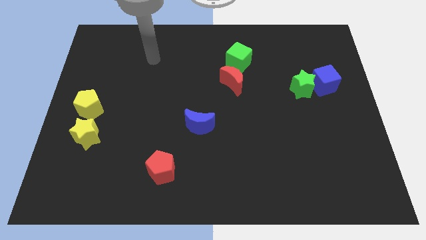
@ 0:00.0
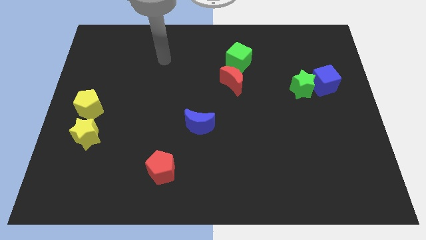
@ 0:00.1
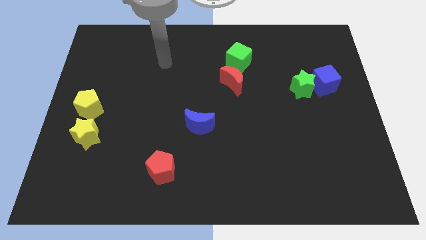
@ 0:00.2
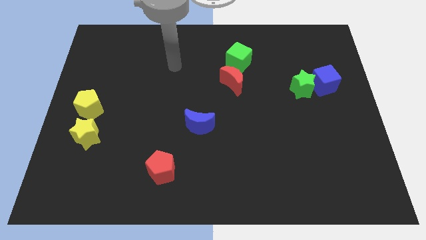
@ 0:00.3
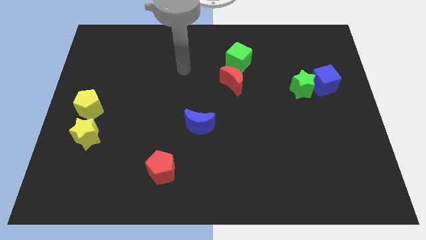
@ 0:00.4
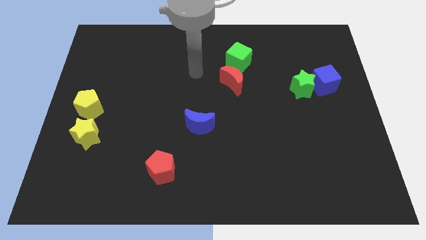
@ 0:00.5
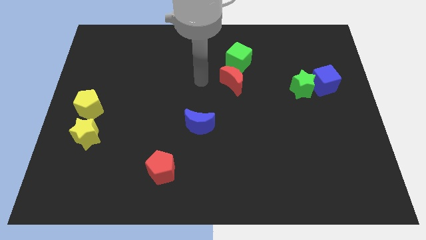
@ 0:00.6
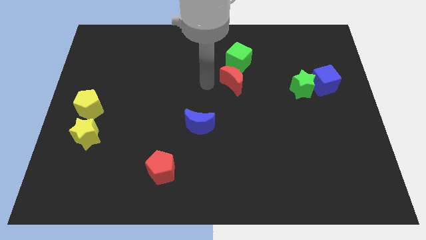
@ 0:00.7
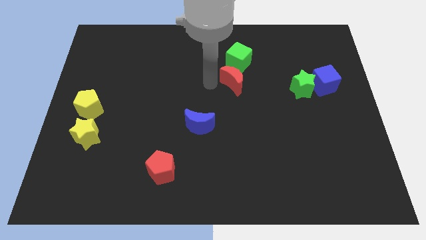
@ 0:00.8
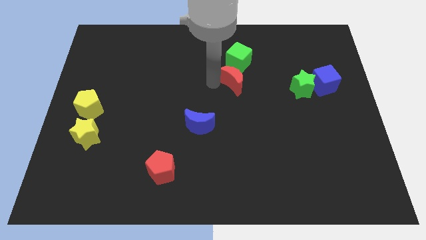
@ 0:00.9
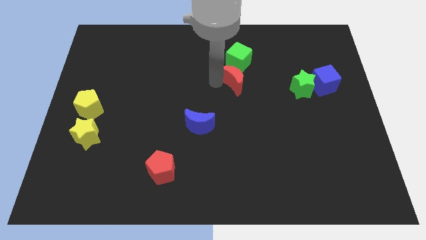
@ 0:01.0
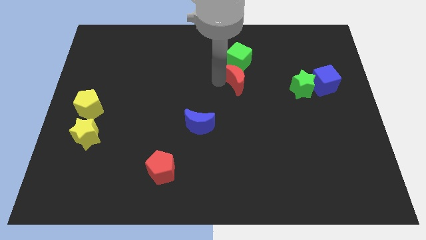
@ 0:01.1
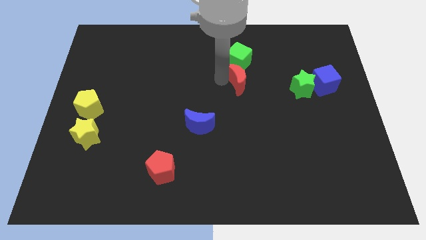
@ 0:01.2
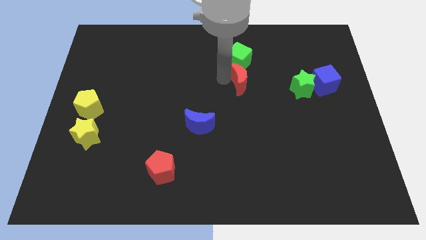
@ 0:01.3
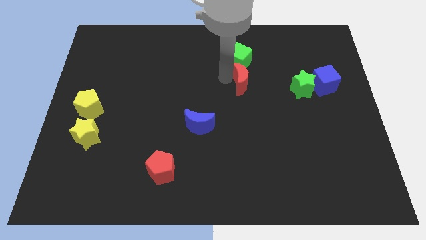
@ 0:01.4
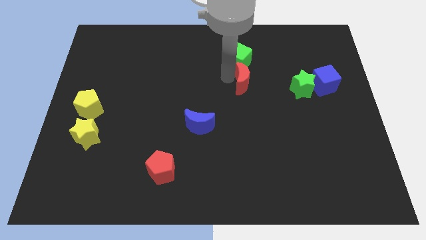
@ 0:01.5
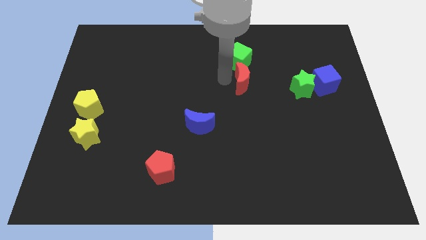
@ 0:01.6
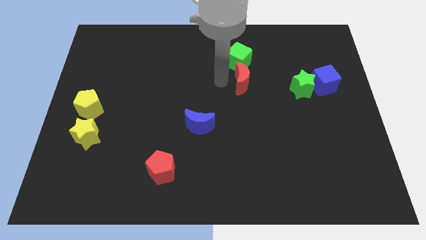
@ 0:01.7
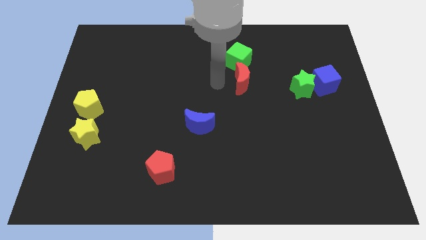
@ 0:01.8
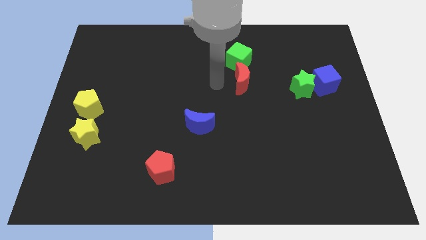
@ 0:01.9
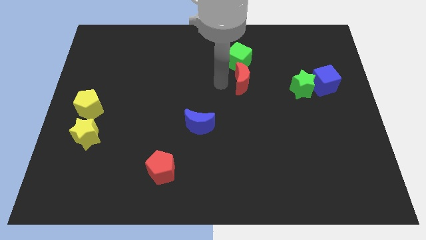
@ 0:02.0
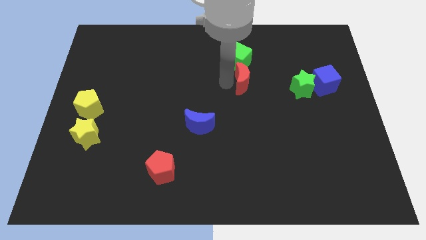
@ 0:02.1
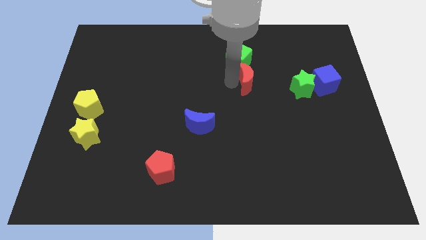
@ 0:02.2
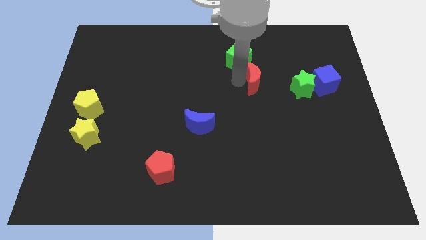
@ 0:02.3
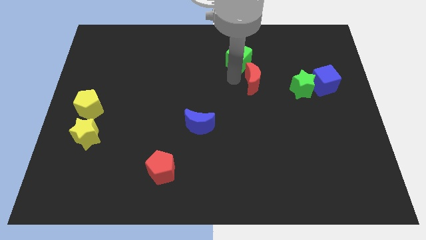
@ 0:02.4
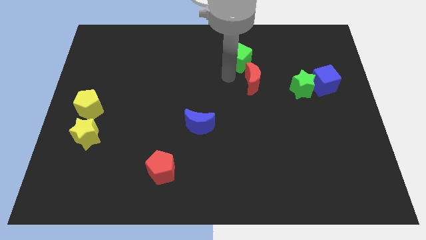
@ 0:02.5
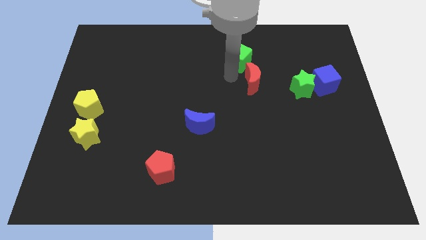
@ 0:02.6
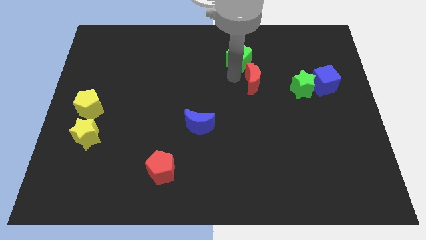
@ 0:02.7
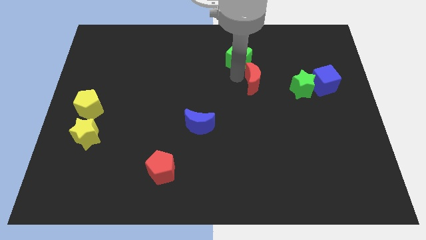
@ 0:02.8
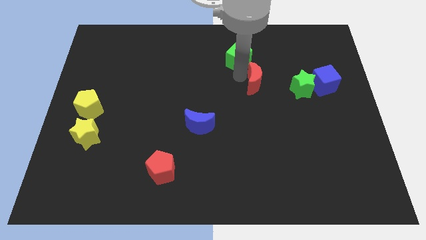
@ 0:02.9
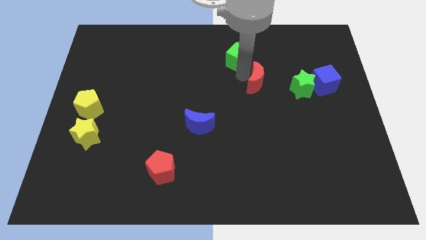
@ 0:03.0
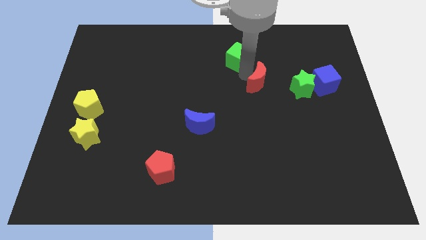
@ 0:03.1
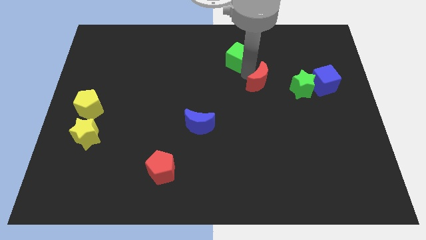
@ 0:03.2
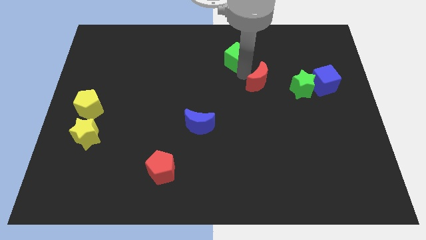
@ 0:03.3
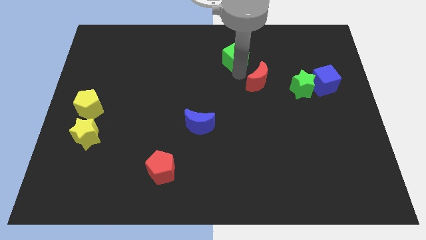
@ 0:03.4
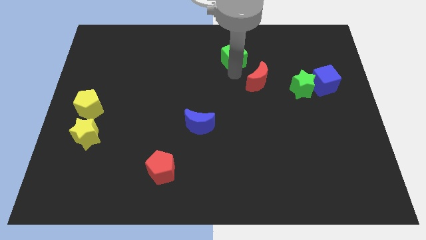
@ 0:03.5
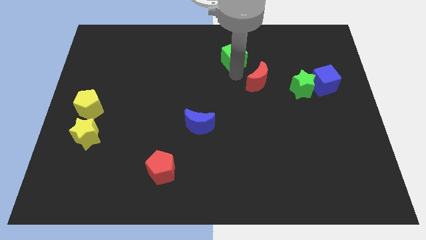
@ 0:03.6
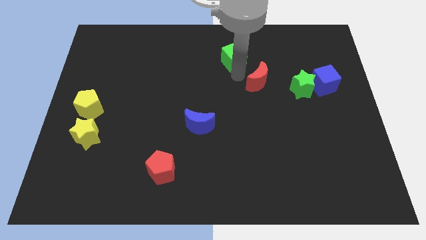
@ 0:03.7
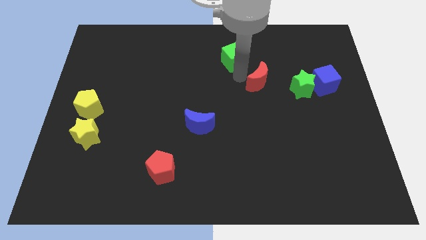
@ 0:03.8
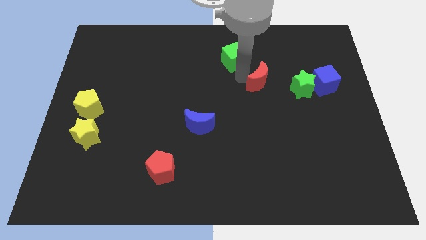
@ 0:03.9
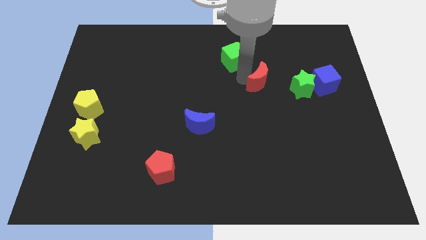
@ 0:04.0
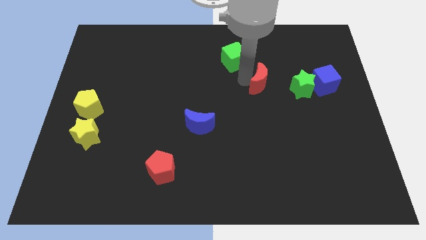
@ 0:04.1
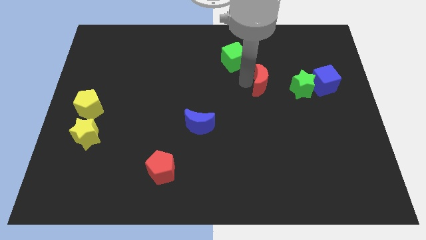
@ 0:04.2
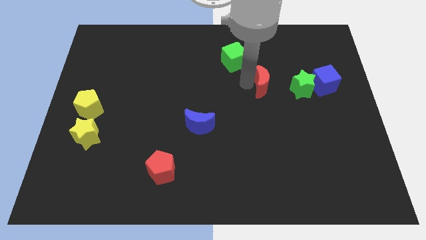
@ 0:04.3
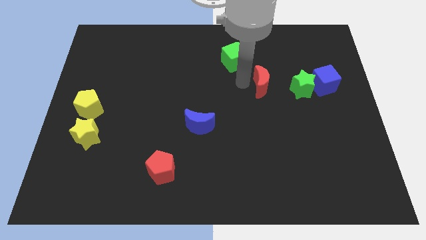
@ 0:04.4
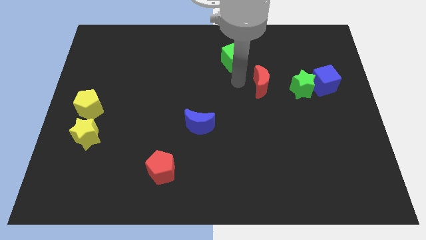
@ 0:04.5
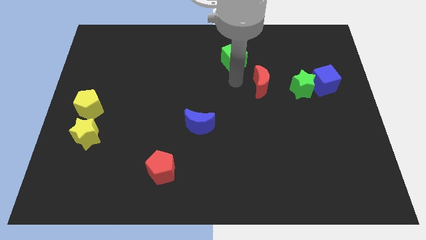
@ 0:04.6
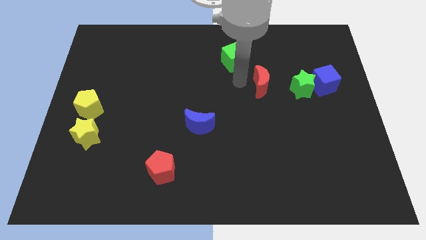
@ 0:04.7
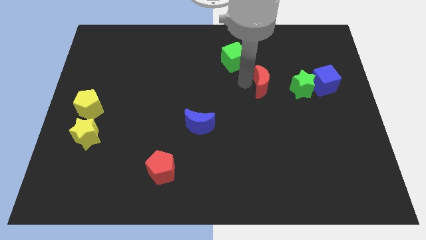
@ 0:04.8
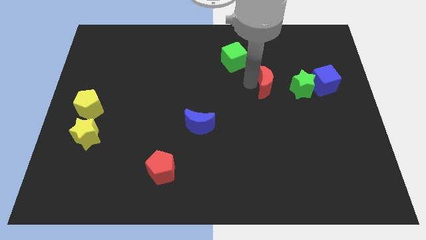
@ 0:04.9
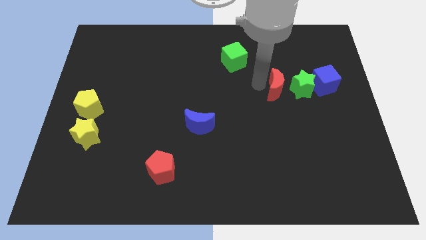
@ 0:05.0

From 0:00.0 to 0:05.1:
push the red moon to the green star

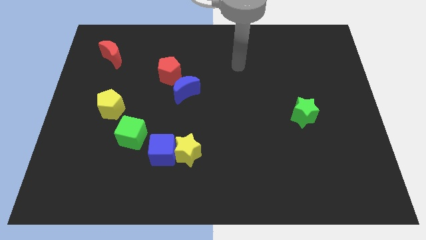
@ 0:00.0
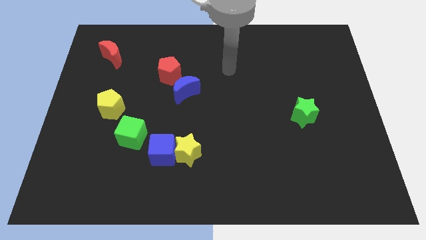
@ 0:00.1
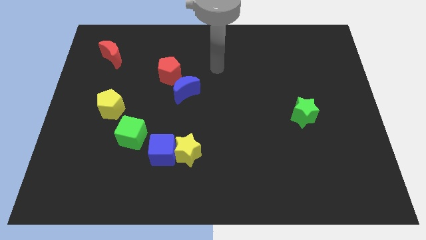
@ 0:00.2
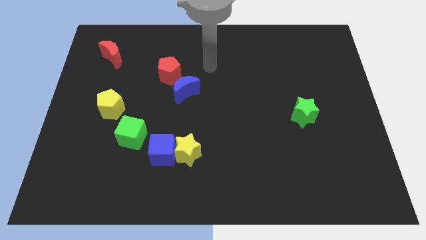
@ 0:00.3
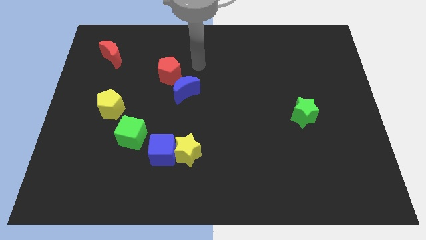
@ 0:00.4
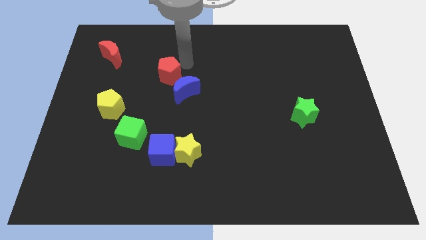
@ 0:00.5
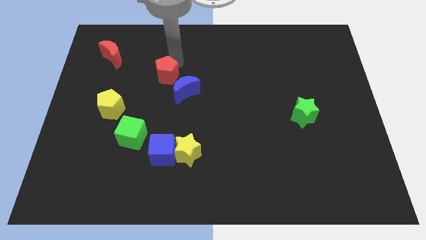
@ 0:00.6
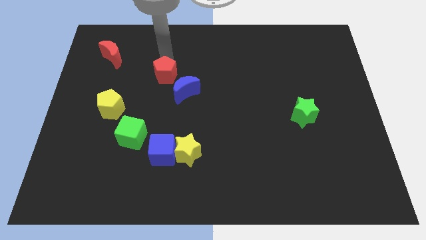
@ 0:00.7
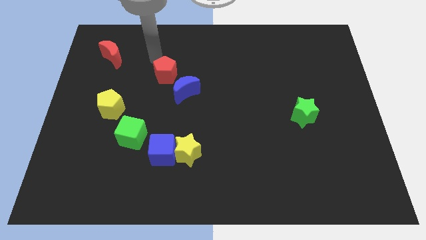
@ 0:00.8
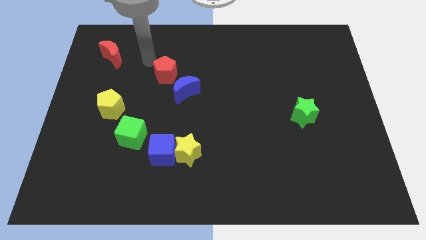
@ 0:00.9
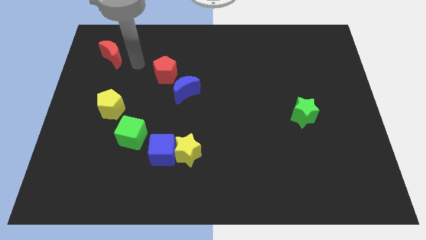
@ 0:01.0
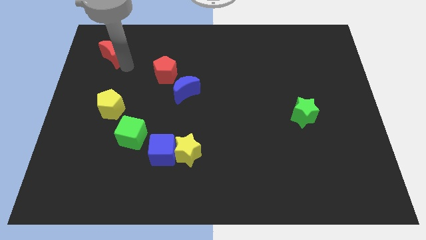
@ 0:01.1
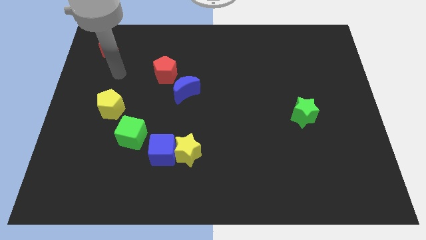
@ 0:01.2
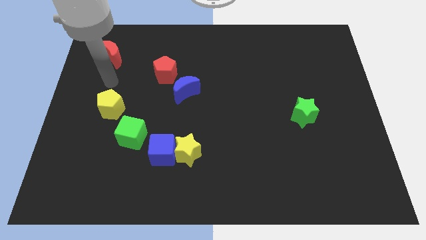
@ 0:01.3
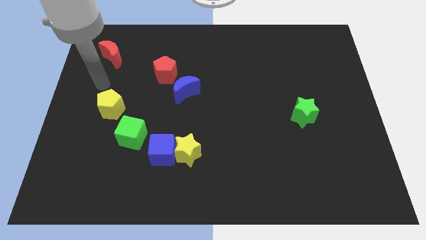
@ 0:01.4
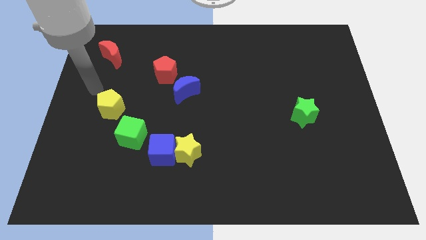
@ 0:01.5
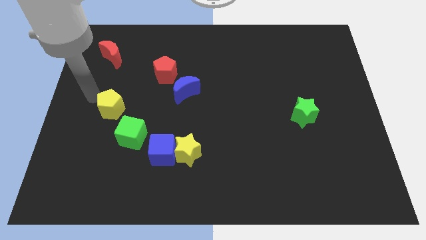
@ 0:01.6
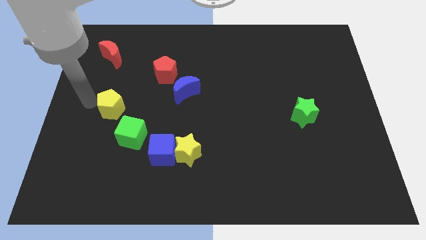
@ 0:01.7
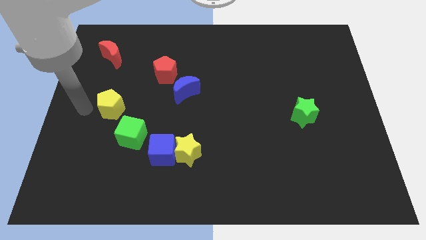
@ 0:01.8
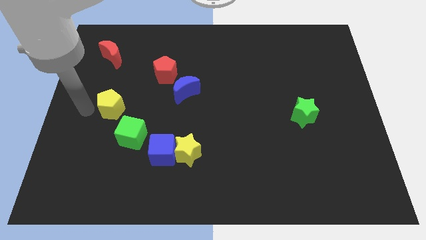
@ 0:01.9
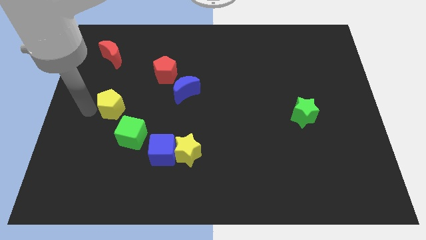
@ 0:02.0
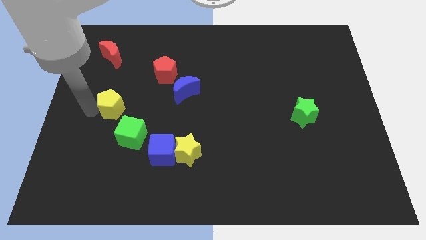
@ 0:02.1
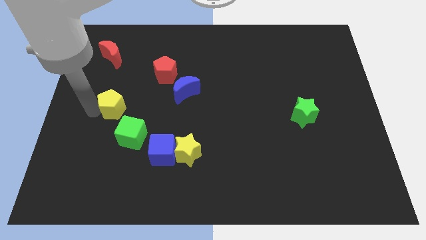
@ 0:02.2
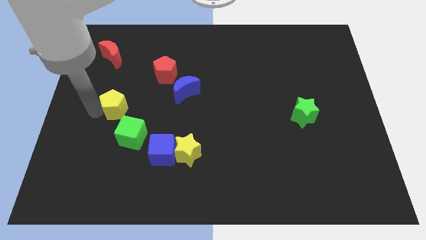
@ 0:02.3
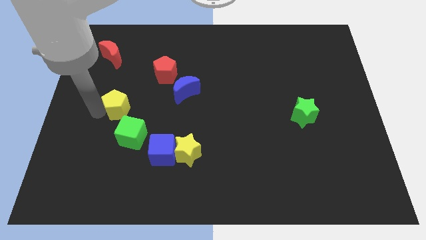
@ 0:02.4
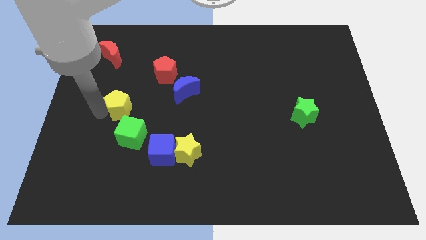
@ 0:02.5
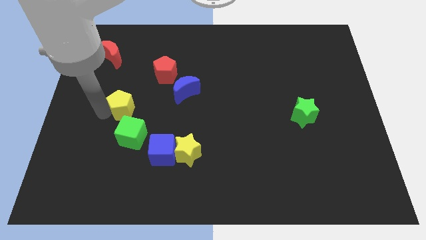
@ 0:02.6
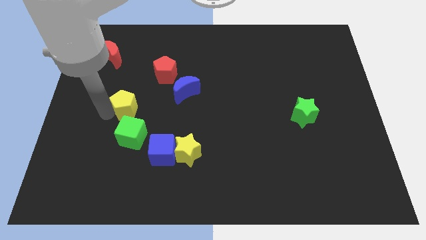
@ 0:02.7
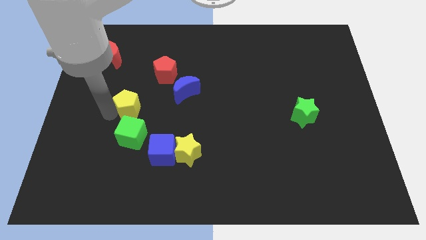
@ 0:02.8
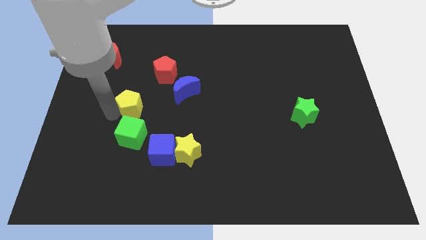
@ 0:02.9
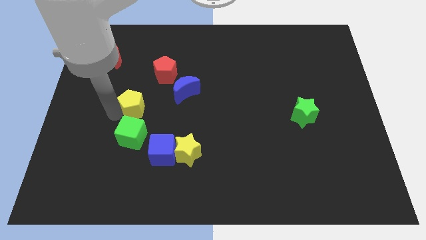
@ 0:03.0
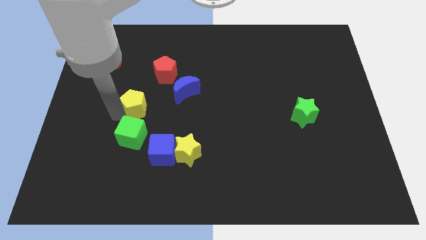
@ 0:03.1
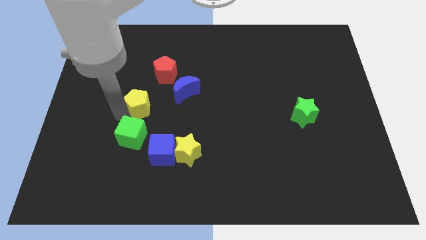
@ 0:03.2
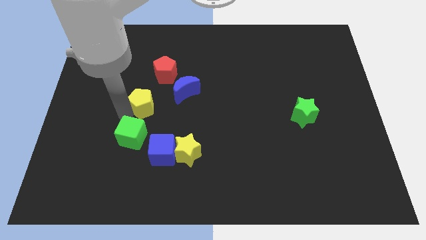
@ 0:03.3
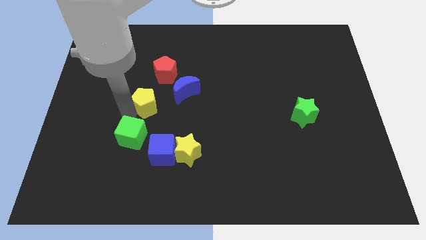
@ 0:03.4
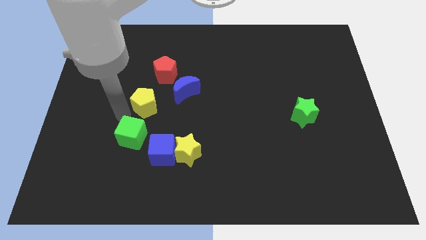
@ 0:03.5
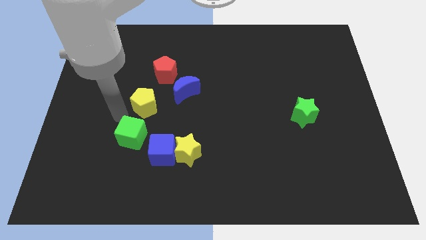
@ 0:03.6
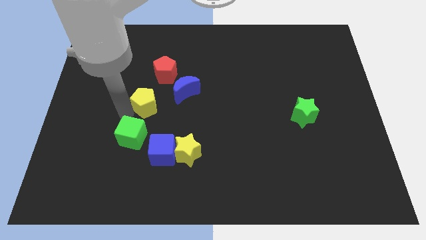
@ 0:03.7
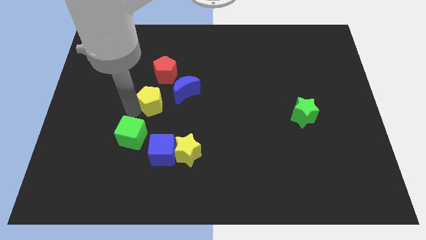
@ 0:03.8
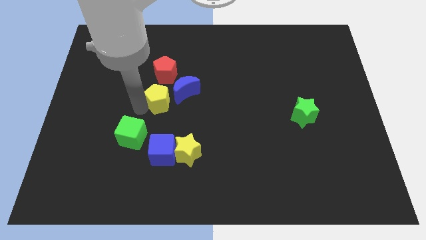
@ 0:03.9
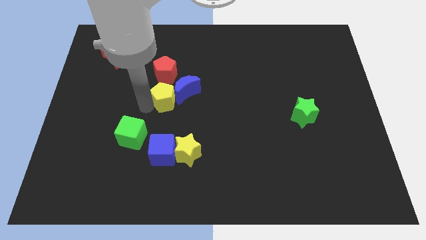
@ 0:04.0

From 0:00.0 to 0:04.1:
push the yellow pentagon towards the blue moon
